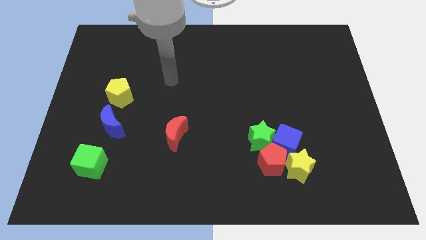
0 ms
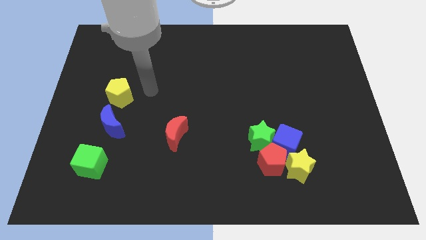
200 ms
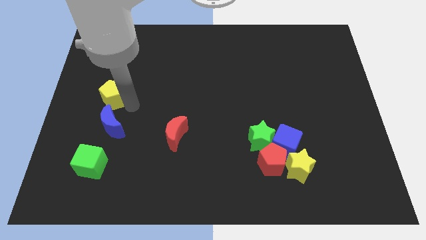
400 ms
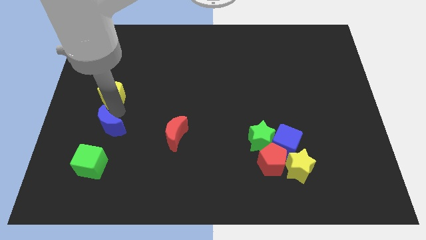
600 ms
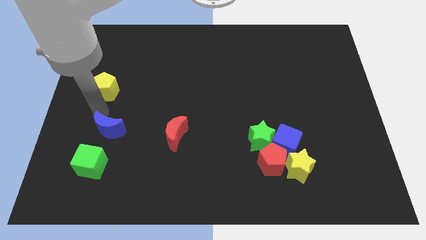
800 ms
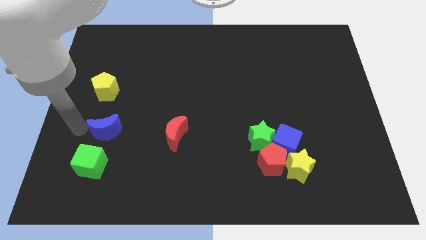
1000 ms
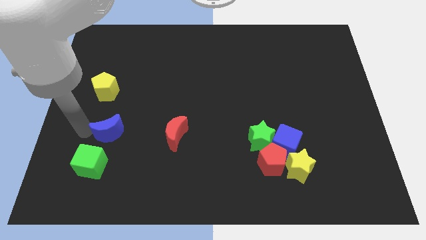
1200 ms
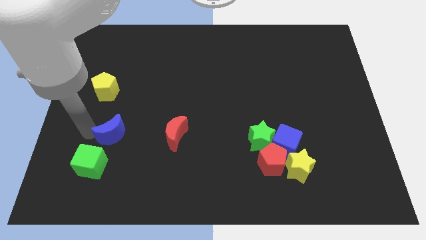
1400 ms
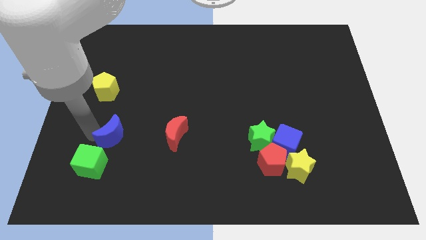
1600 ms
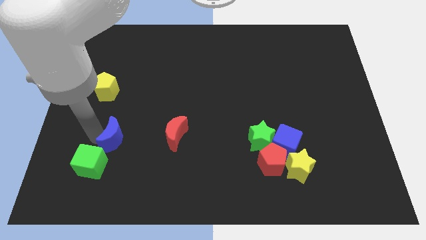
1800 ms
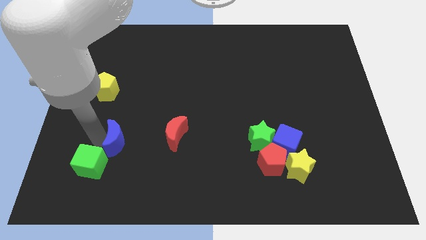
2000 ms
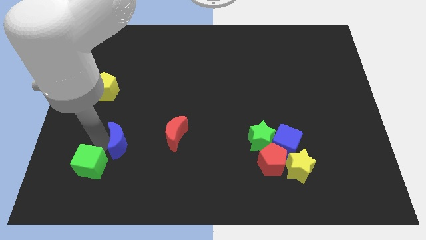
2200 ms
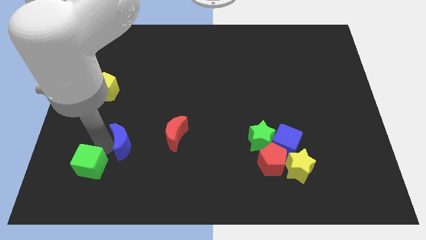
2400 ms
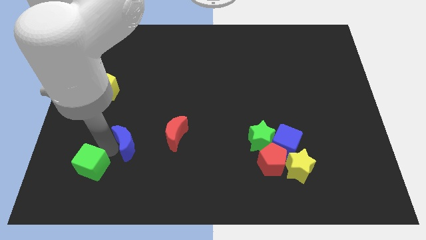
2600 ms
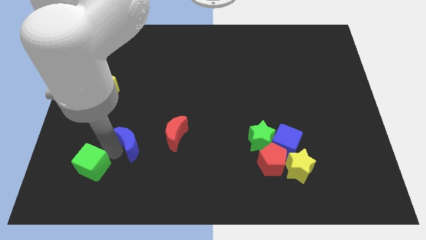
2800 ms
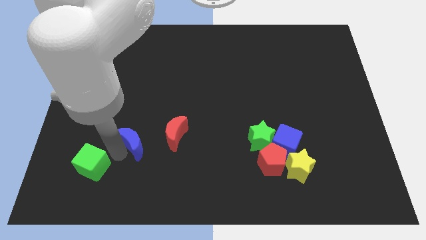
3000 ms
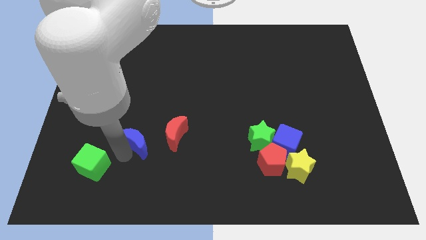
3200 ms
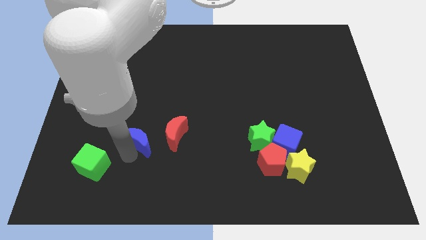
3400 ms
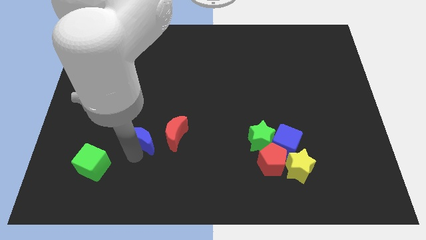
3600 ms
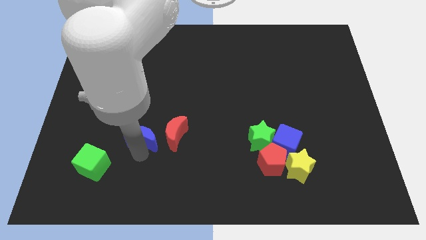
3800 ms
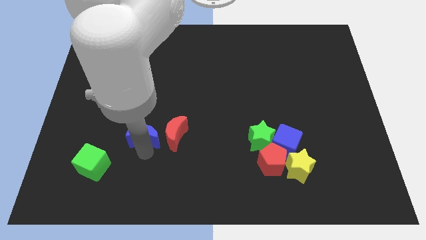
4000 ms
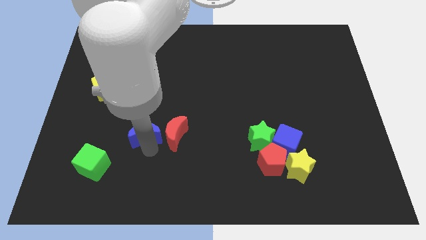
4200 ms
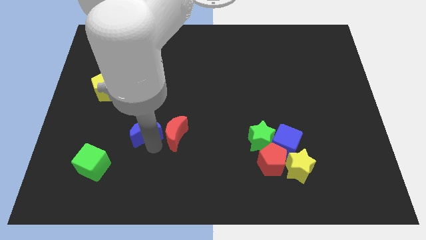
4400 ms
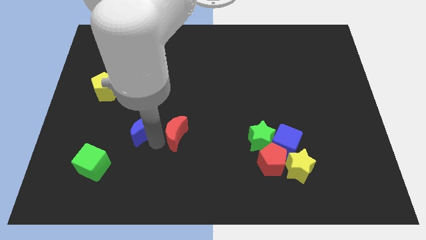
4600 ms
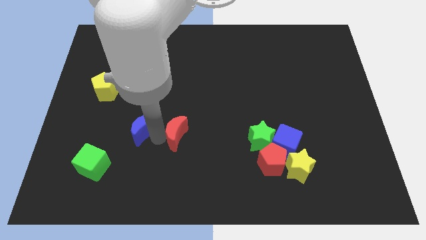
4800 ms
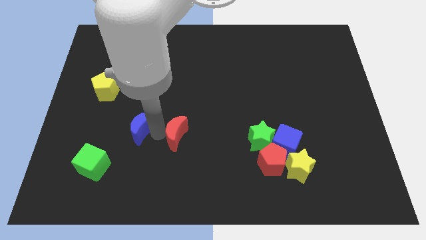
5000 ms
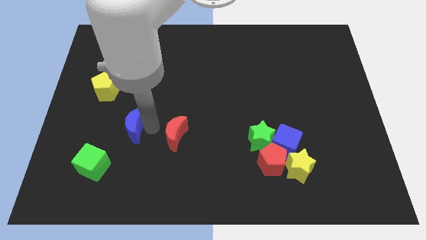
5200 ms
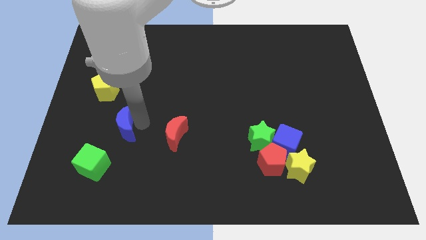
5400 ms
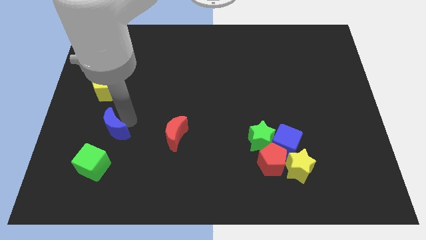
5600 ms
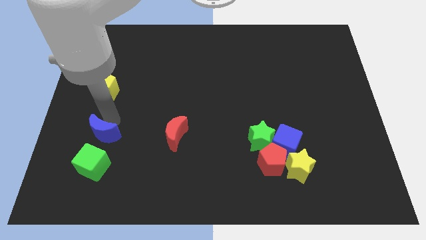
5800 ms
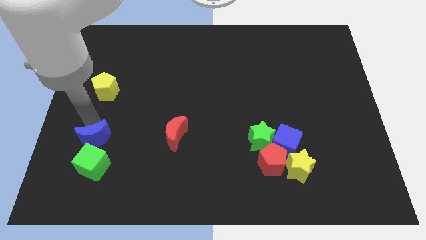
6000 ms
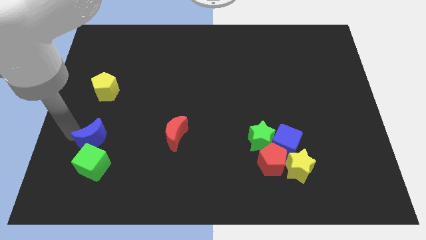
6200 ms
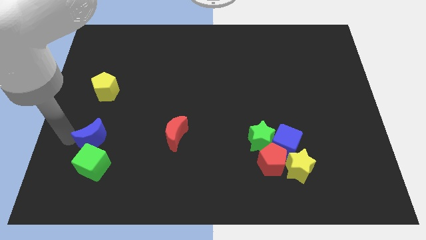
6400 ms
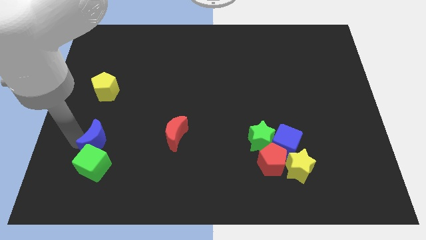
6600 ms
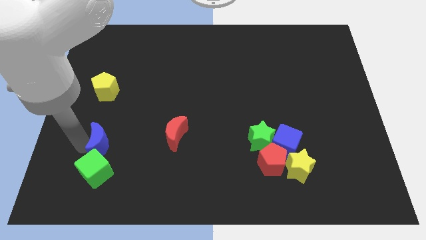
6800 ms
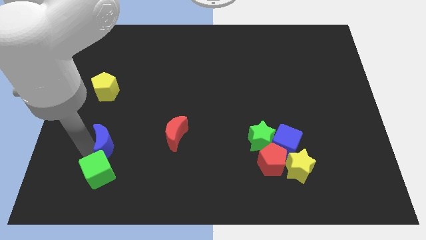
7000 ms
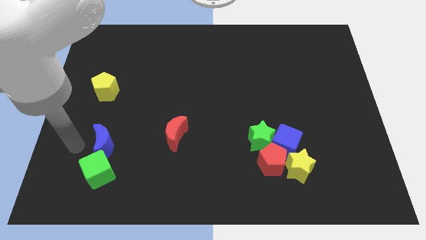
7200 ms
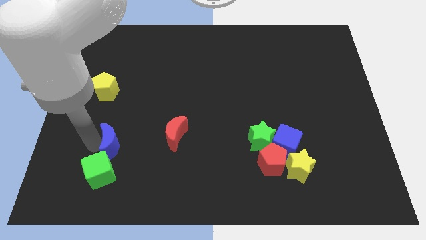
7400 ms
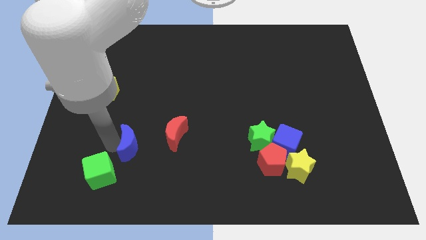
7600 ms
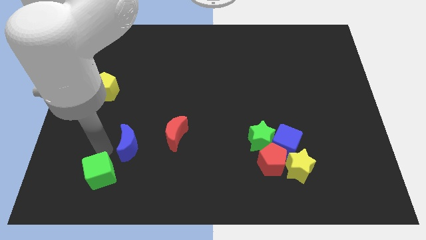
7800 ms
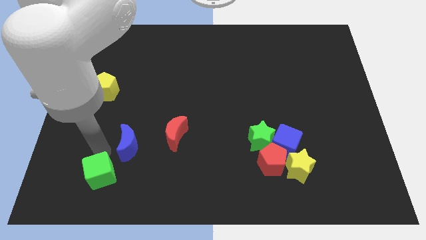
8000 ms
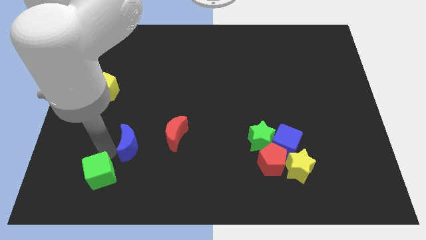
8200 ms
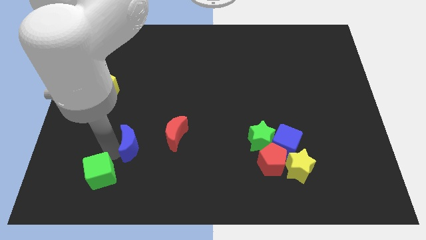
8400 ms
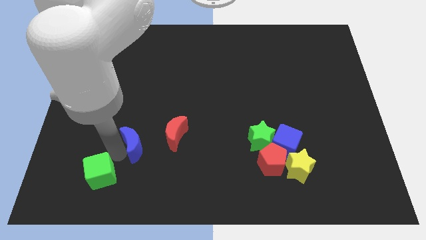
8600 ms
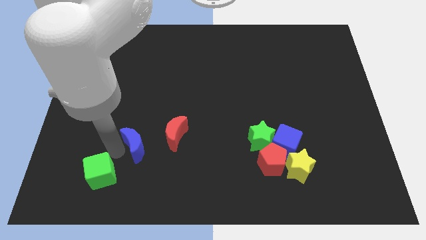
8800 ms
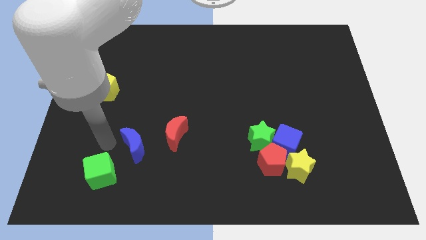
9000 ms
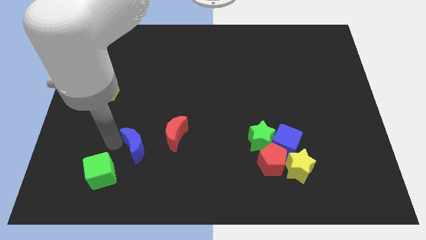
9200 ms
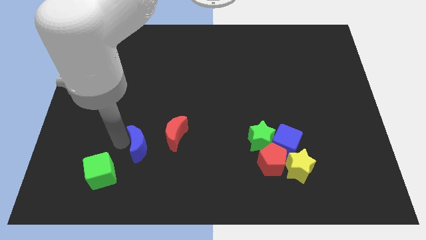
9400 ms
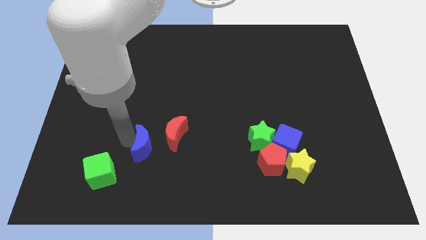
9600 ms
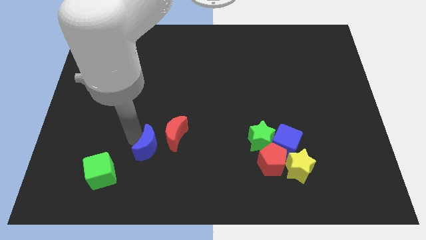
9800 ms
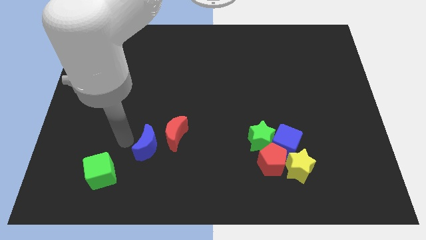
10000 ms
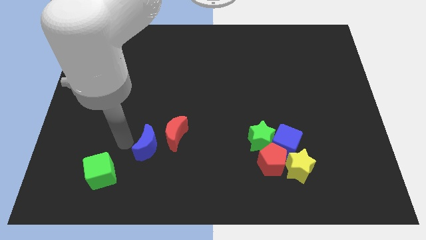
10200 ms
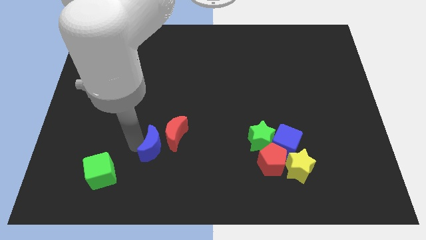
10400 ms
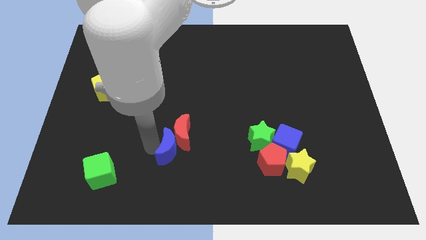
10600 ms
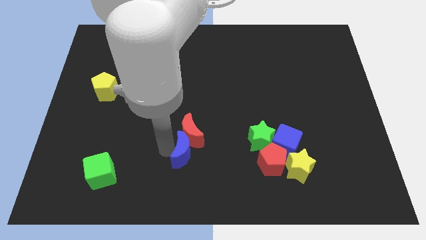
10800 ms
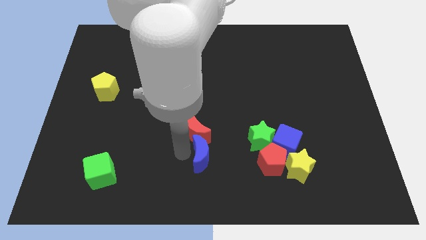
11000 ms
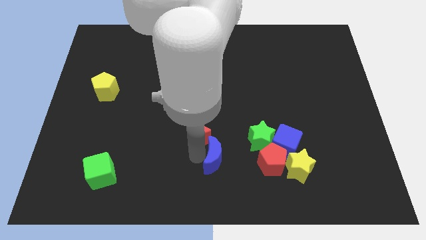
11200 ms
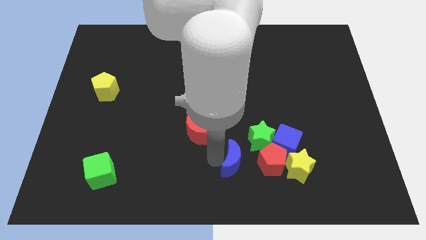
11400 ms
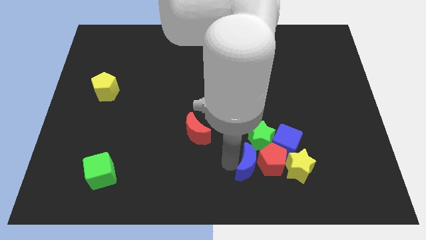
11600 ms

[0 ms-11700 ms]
move the blue moon towards the red pentagon

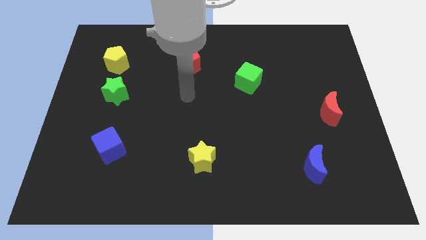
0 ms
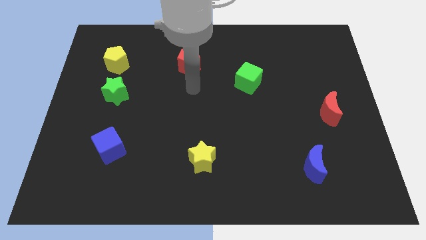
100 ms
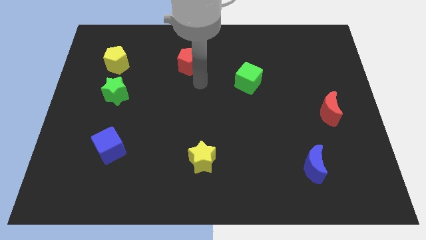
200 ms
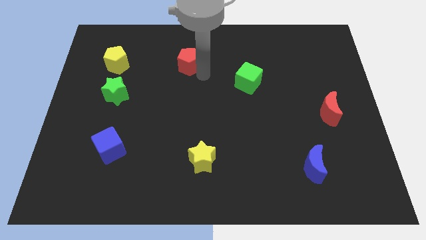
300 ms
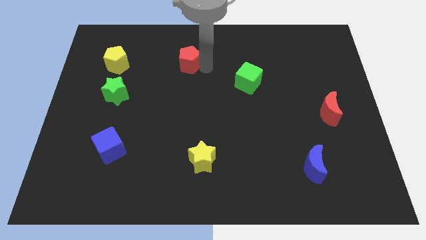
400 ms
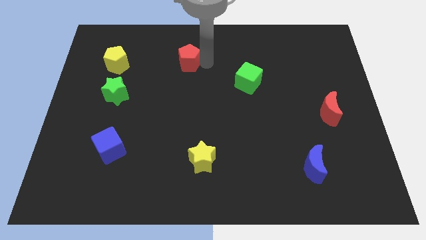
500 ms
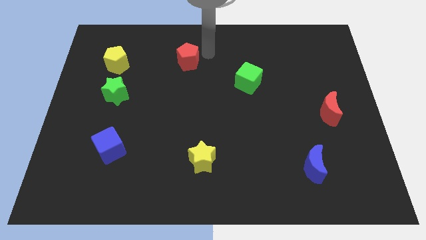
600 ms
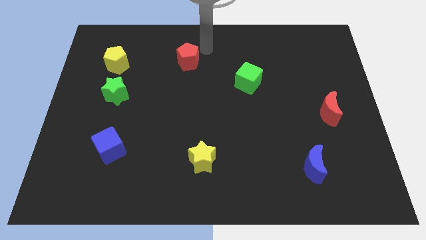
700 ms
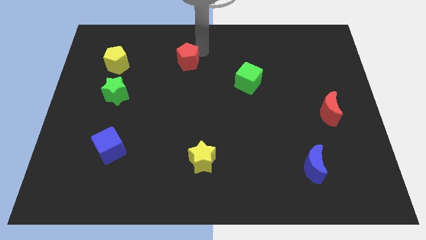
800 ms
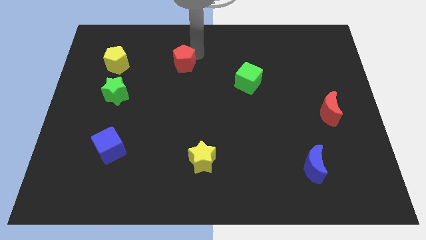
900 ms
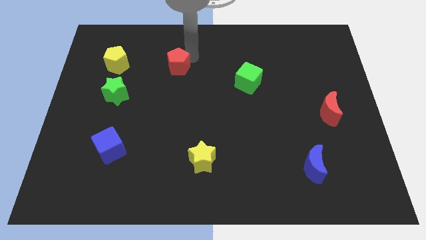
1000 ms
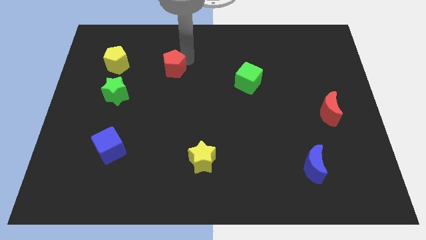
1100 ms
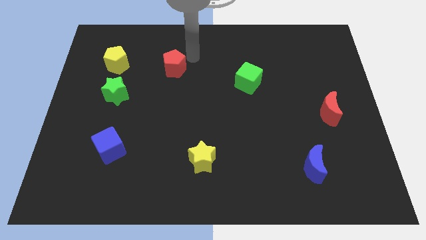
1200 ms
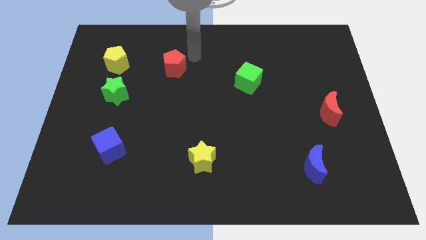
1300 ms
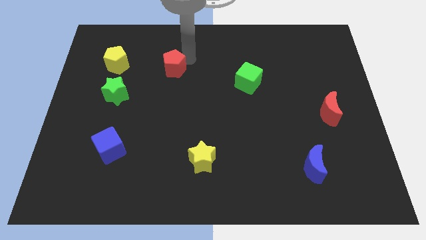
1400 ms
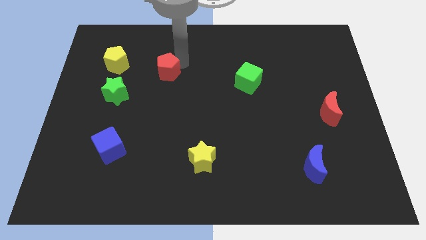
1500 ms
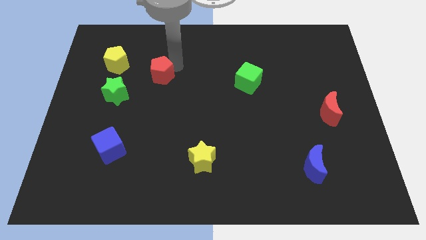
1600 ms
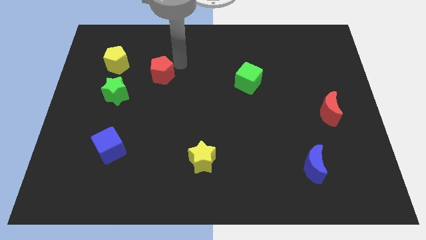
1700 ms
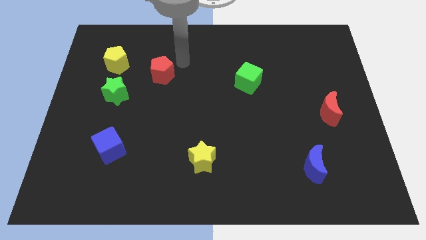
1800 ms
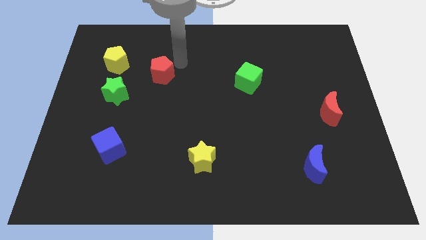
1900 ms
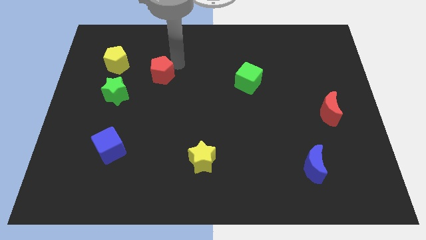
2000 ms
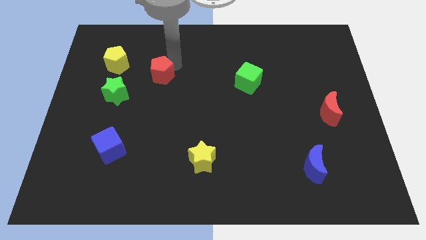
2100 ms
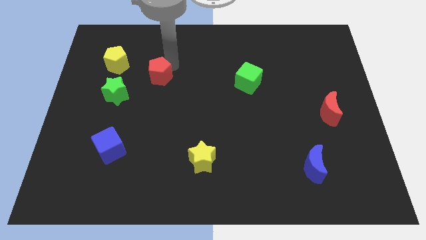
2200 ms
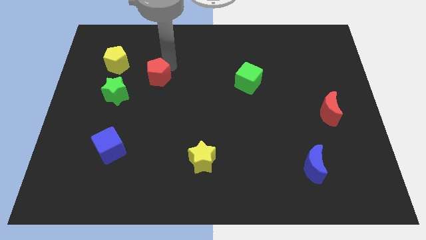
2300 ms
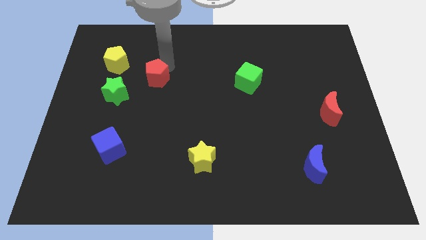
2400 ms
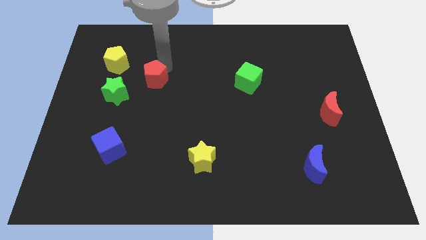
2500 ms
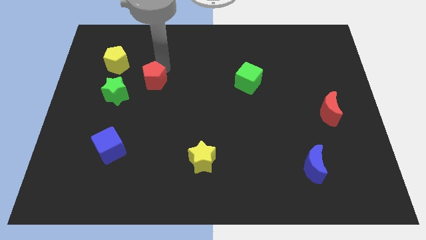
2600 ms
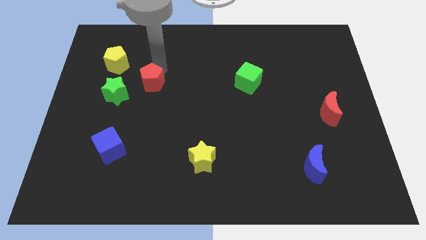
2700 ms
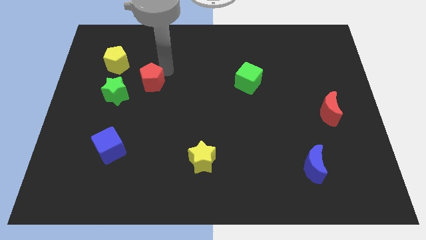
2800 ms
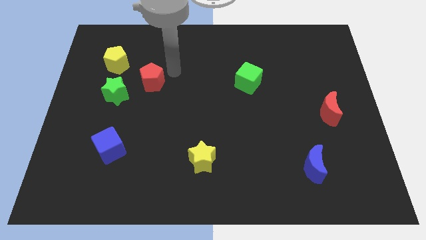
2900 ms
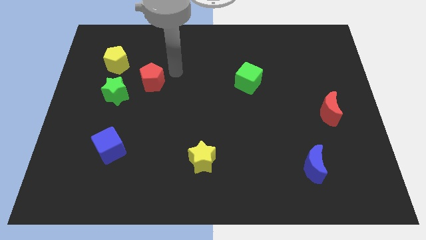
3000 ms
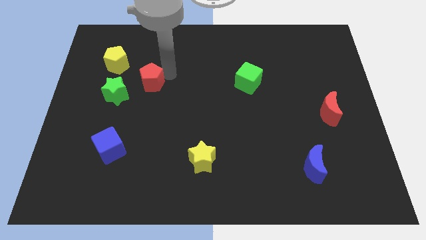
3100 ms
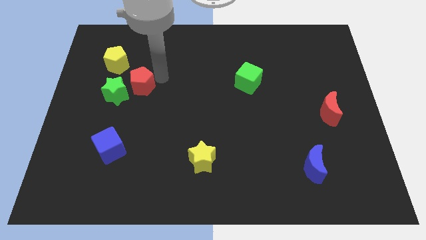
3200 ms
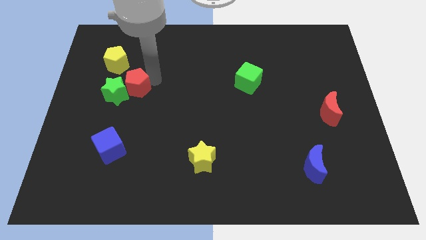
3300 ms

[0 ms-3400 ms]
move the red pentagon next to the green star
